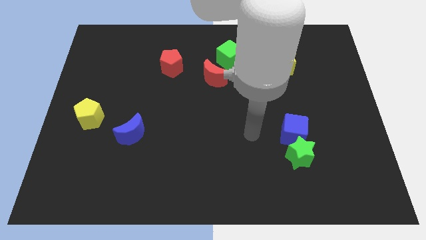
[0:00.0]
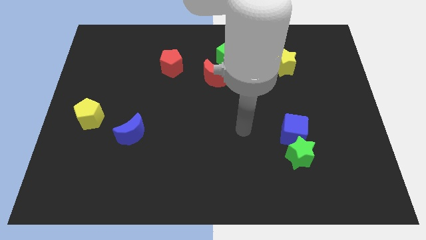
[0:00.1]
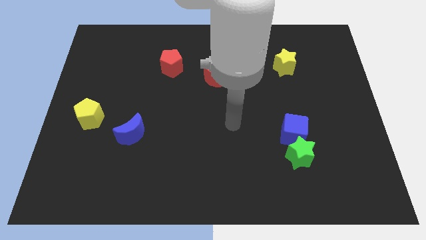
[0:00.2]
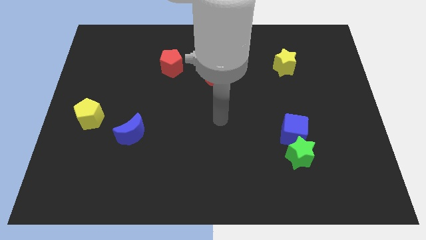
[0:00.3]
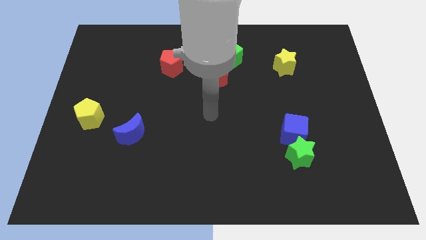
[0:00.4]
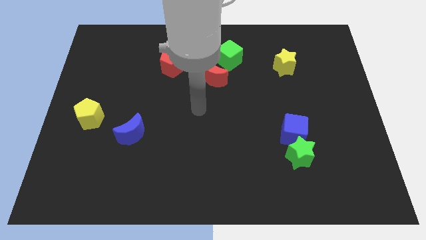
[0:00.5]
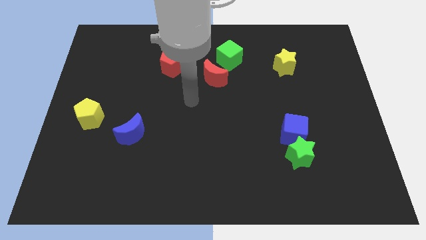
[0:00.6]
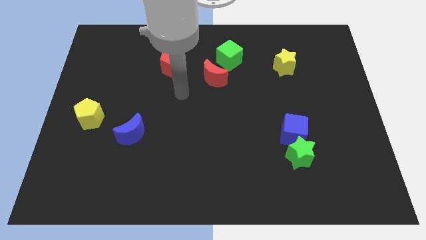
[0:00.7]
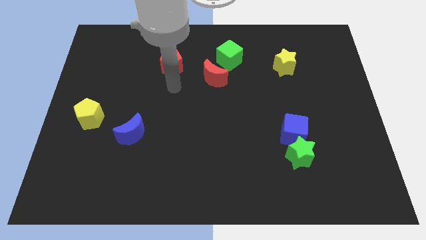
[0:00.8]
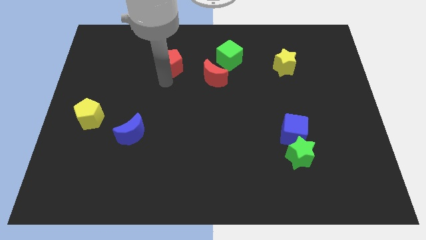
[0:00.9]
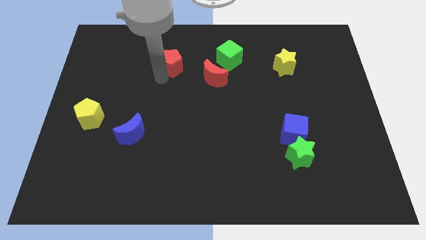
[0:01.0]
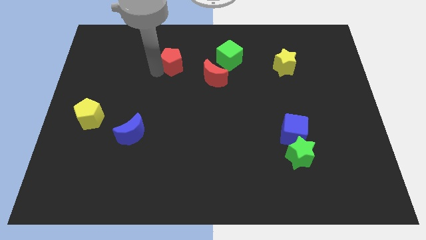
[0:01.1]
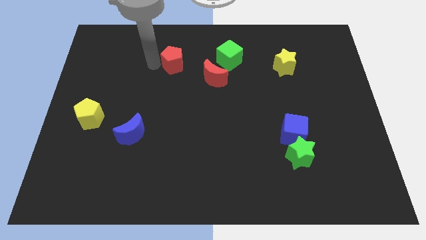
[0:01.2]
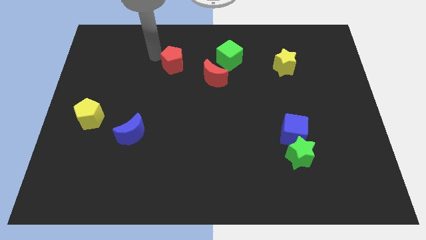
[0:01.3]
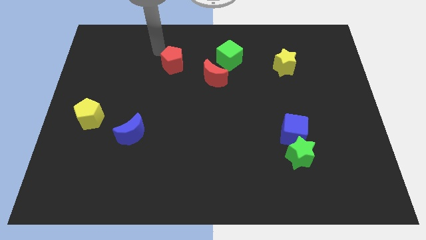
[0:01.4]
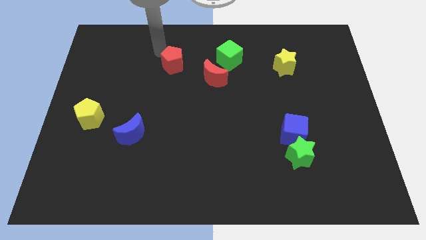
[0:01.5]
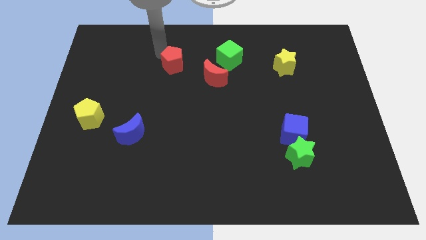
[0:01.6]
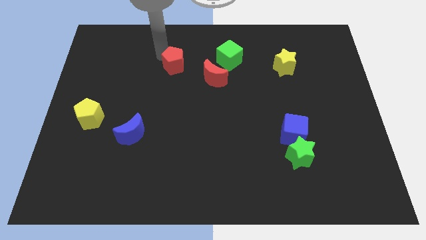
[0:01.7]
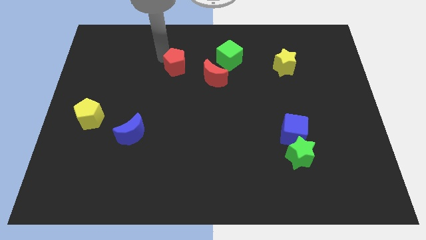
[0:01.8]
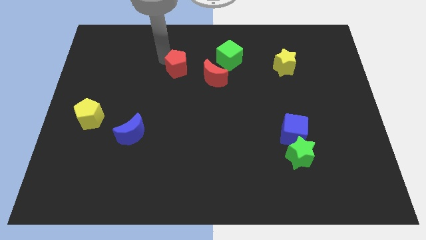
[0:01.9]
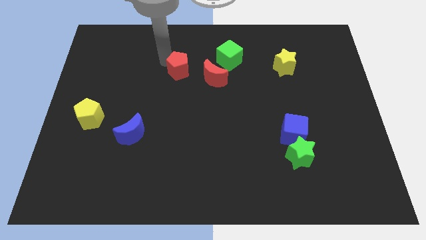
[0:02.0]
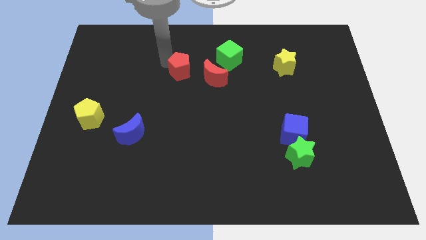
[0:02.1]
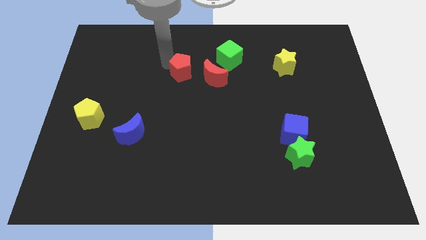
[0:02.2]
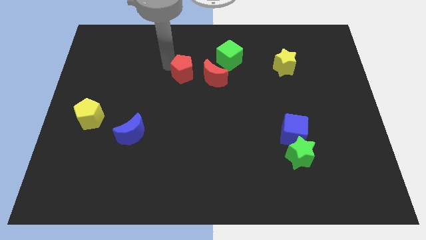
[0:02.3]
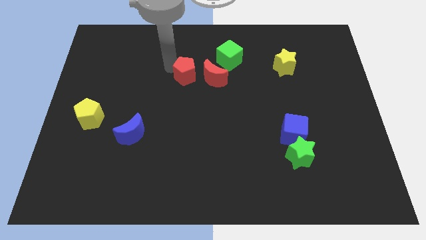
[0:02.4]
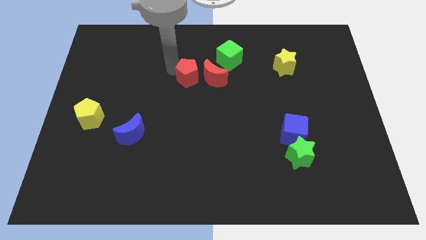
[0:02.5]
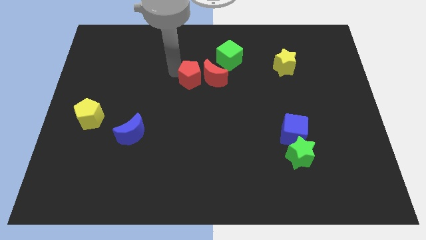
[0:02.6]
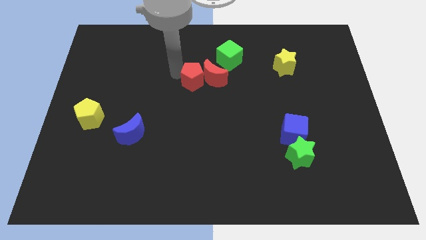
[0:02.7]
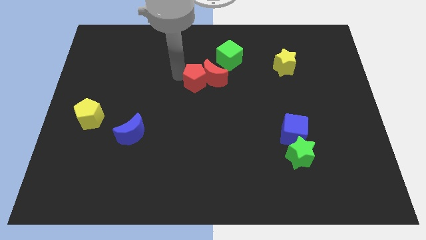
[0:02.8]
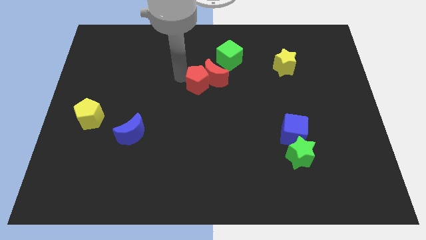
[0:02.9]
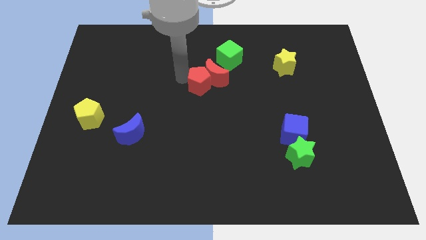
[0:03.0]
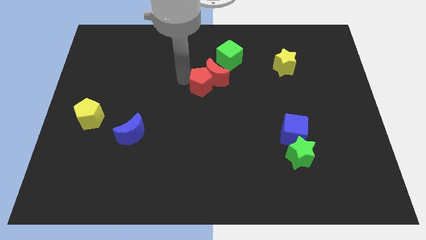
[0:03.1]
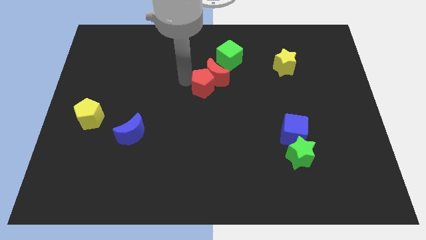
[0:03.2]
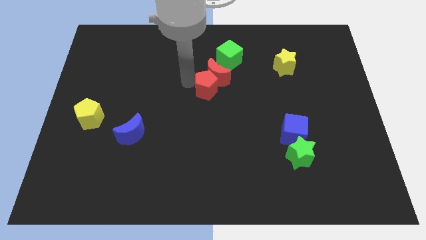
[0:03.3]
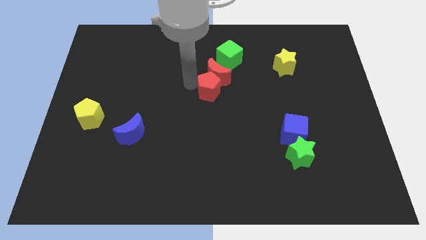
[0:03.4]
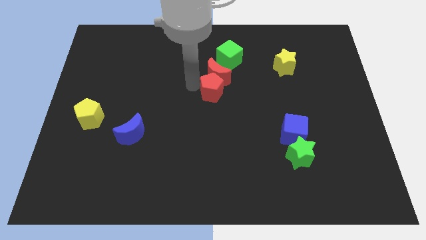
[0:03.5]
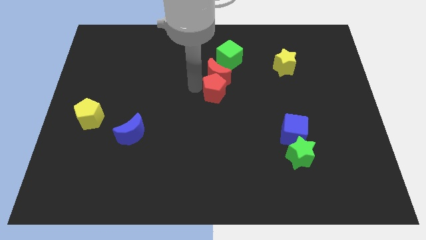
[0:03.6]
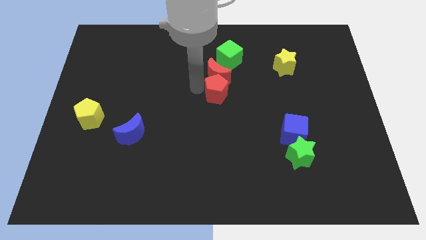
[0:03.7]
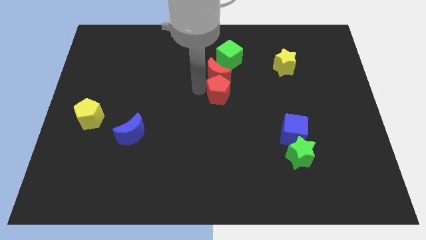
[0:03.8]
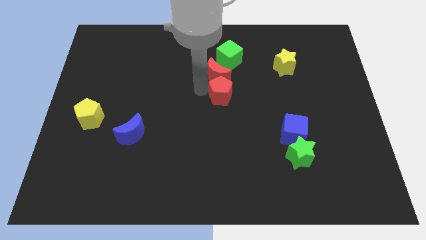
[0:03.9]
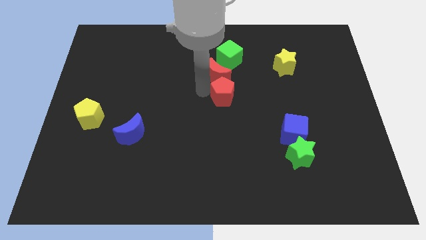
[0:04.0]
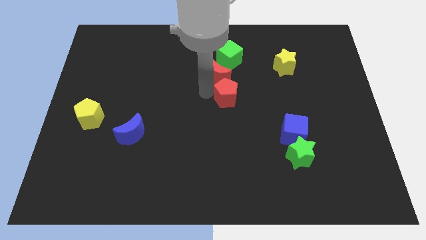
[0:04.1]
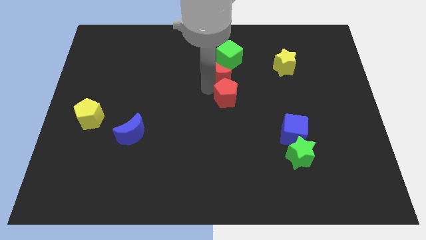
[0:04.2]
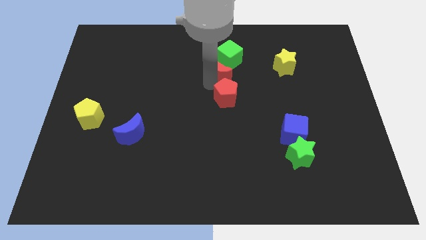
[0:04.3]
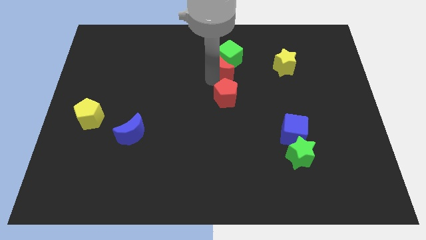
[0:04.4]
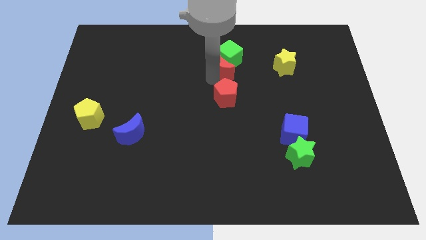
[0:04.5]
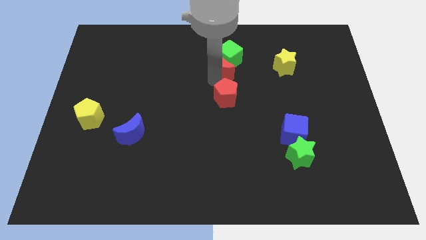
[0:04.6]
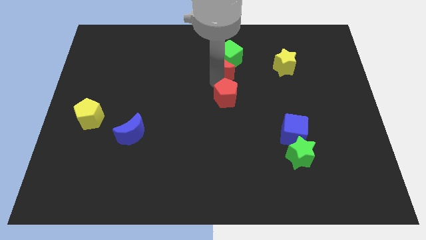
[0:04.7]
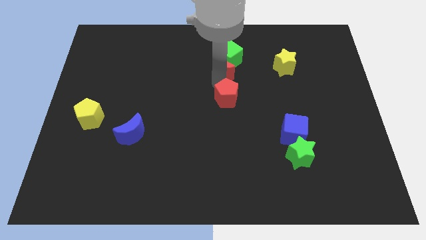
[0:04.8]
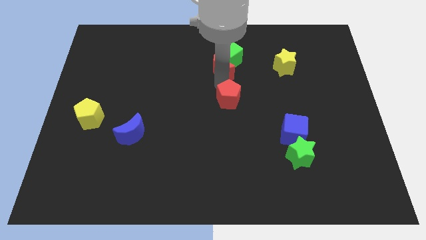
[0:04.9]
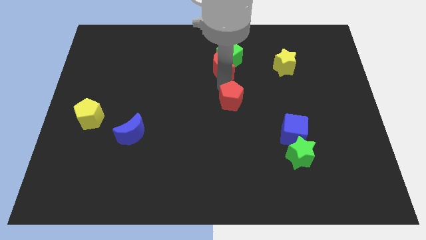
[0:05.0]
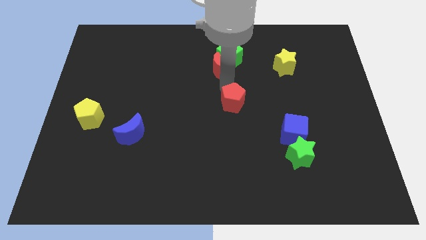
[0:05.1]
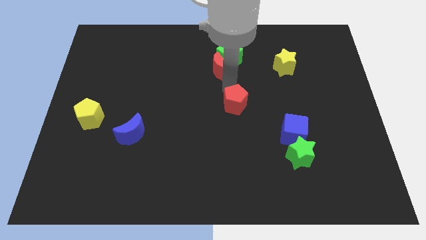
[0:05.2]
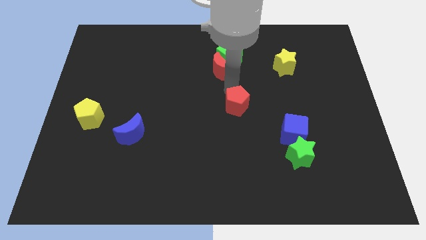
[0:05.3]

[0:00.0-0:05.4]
push the red pentagon diagonally down and right

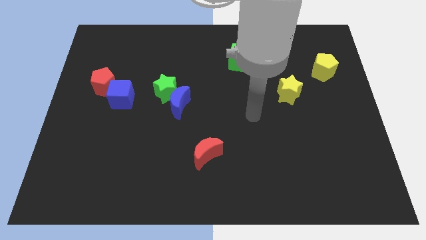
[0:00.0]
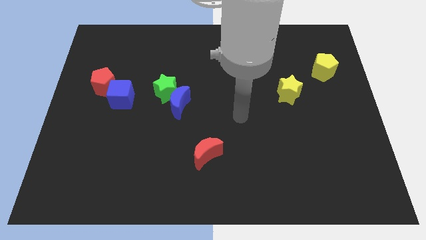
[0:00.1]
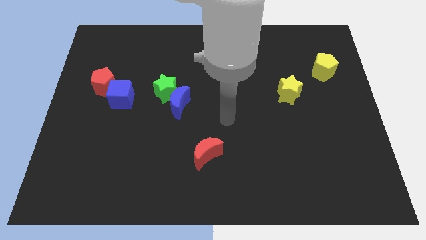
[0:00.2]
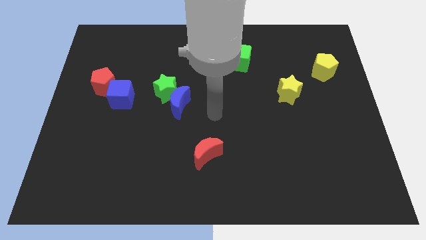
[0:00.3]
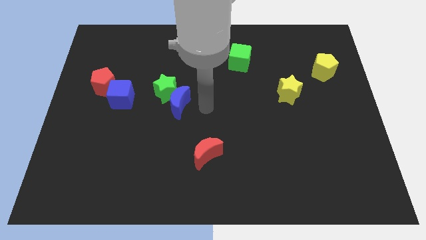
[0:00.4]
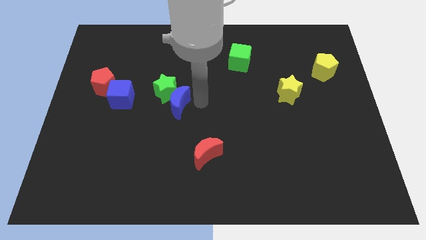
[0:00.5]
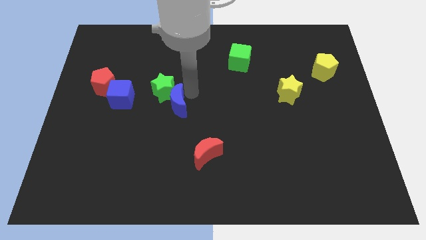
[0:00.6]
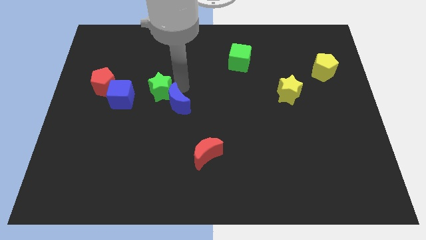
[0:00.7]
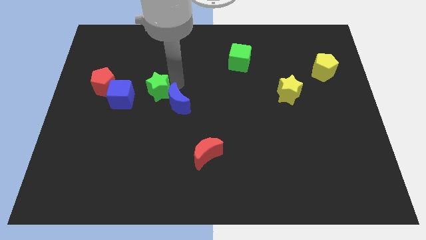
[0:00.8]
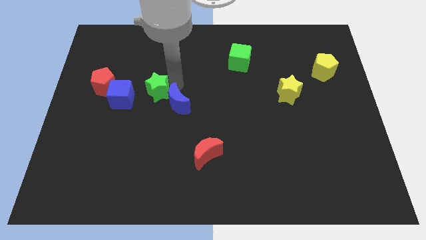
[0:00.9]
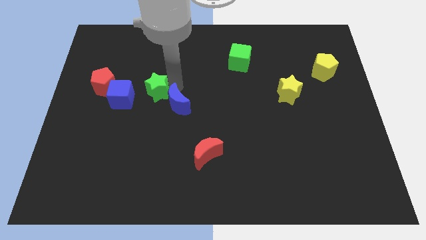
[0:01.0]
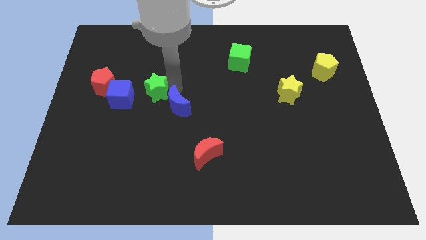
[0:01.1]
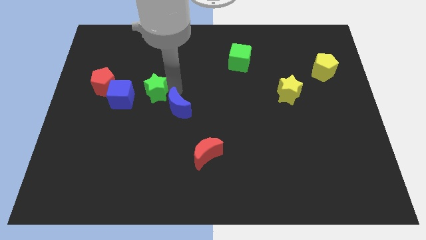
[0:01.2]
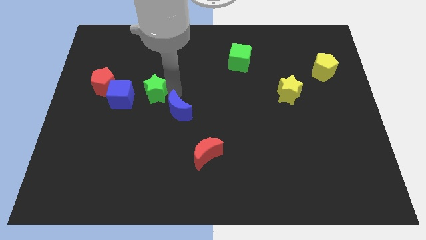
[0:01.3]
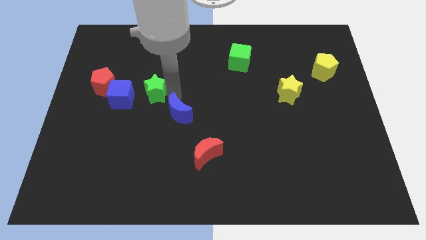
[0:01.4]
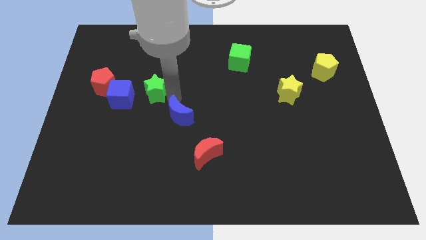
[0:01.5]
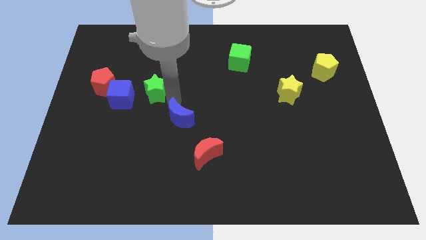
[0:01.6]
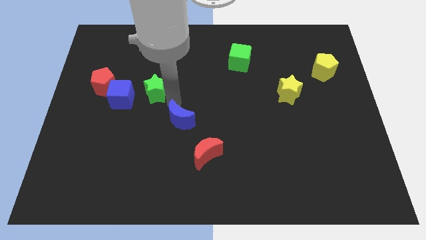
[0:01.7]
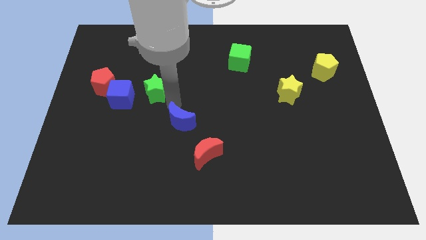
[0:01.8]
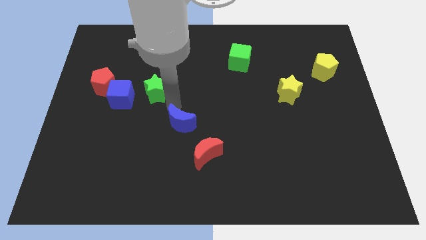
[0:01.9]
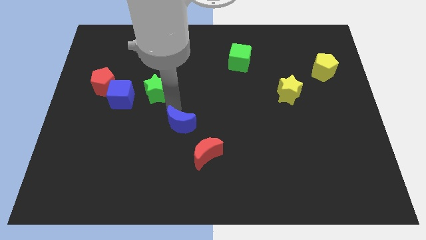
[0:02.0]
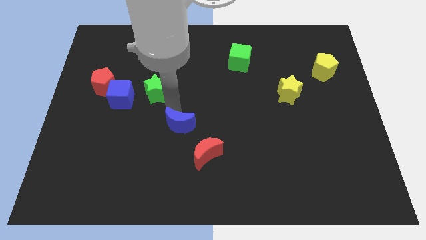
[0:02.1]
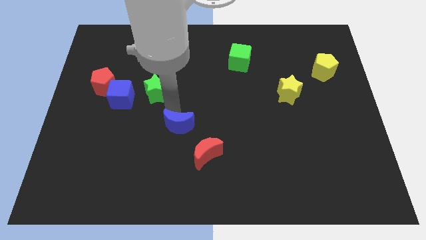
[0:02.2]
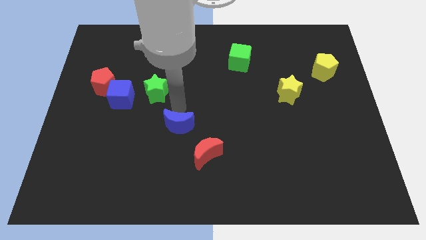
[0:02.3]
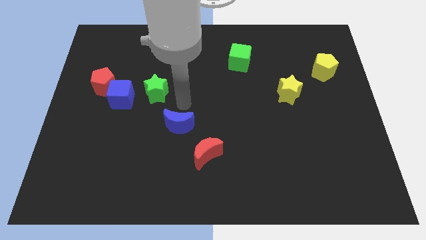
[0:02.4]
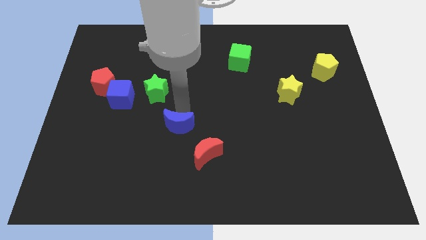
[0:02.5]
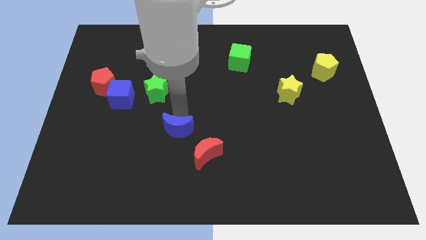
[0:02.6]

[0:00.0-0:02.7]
slightly push the blue moon downwards

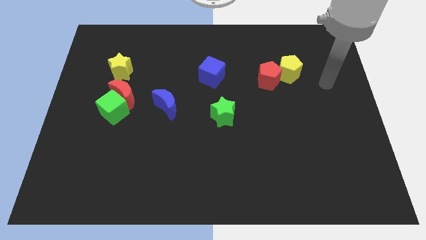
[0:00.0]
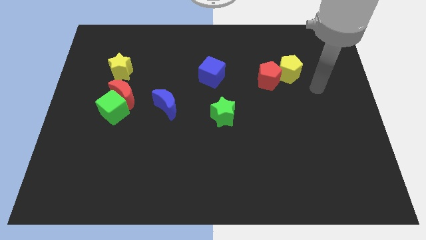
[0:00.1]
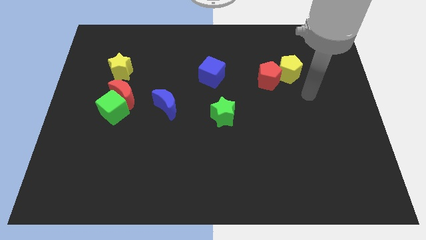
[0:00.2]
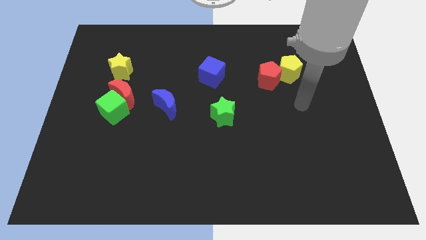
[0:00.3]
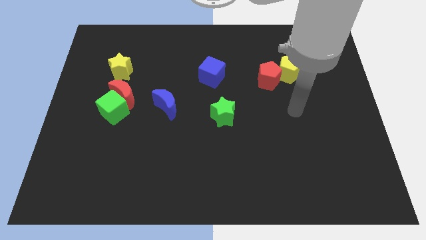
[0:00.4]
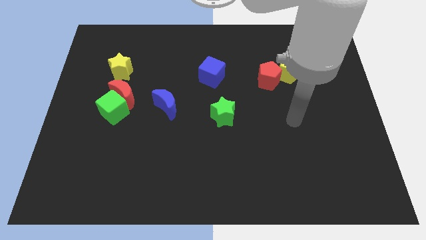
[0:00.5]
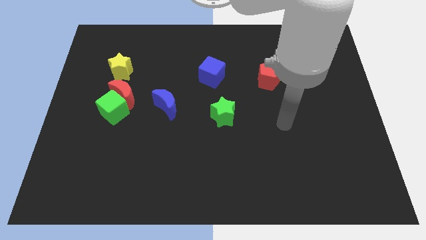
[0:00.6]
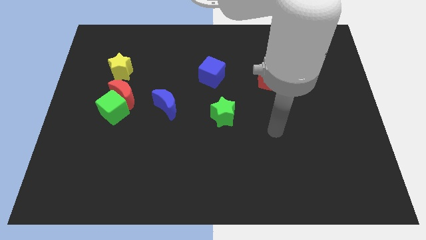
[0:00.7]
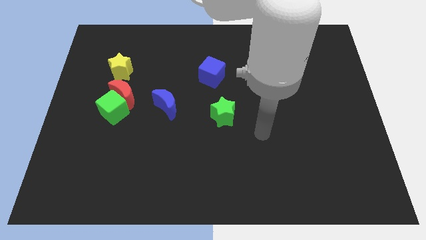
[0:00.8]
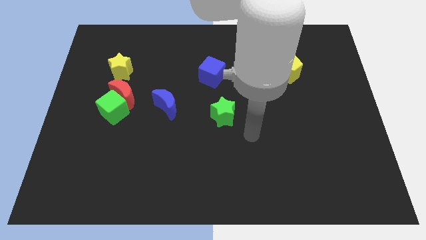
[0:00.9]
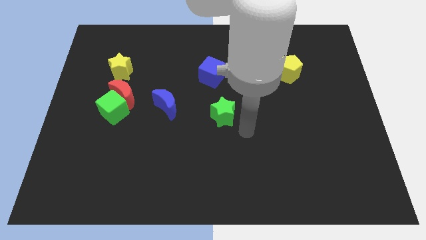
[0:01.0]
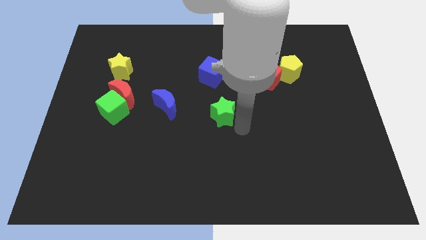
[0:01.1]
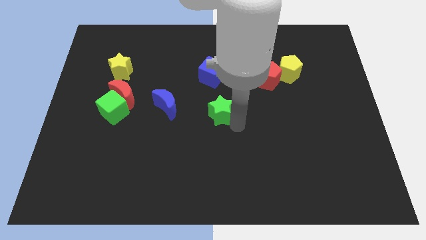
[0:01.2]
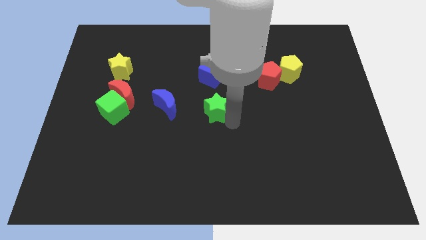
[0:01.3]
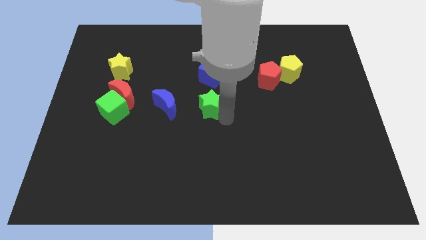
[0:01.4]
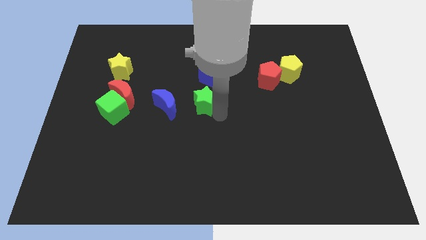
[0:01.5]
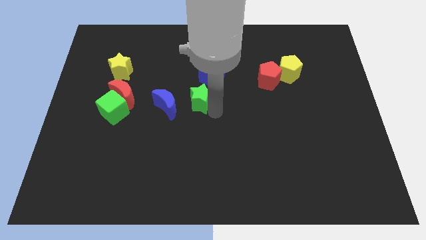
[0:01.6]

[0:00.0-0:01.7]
slide the green star up and then to the left somewhat
